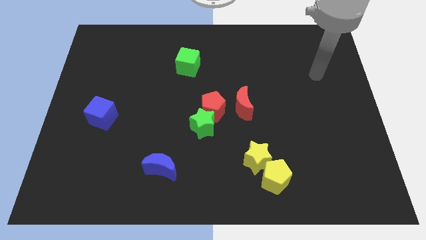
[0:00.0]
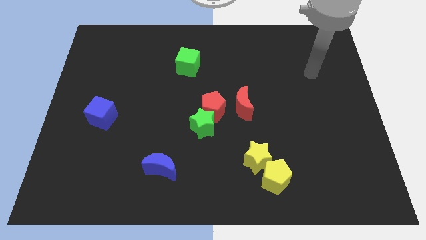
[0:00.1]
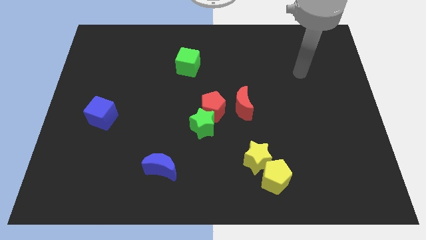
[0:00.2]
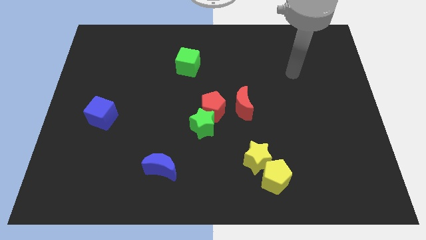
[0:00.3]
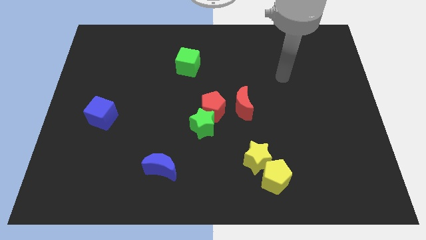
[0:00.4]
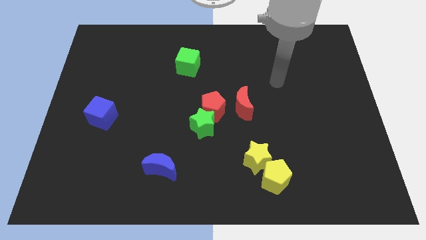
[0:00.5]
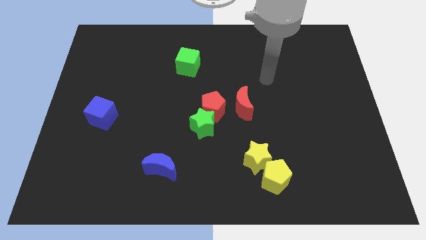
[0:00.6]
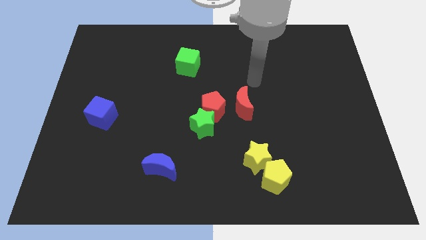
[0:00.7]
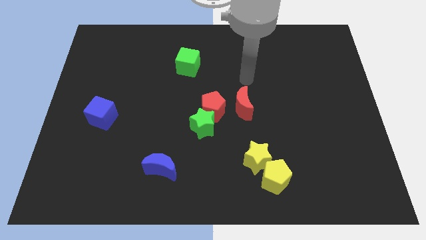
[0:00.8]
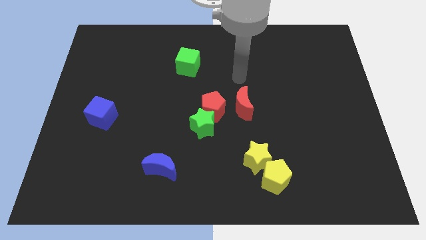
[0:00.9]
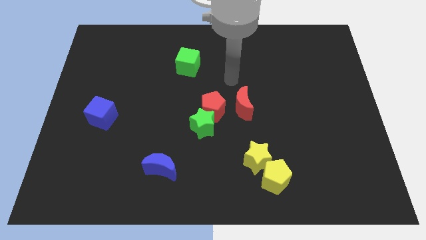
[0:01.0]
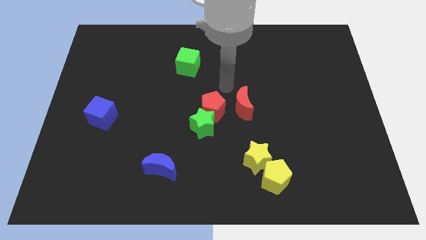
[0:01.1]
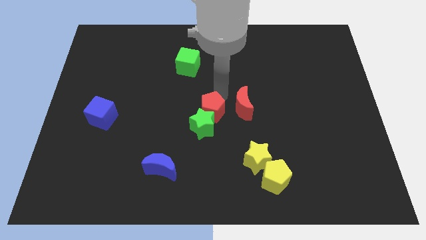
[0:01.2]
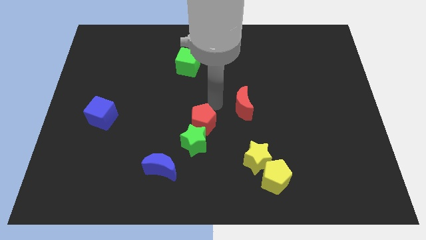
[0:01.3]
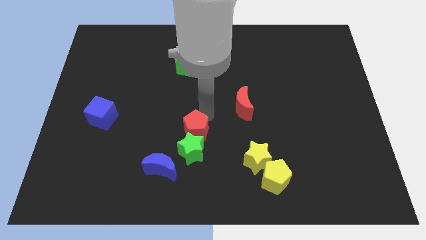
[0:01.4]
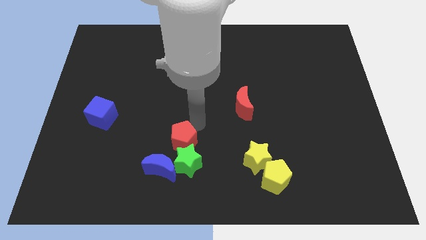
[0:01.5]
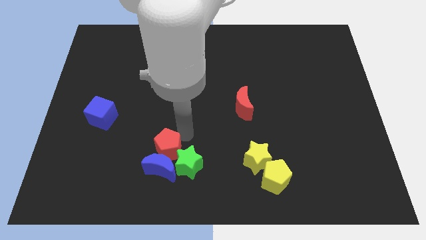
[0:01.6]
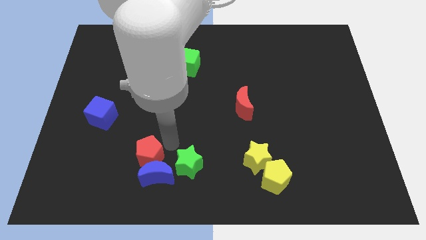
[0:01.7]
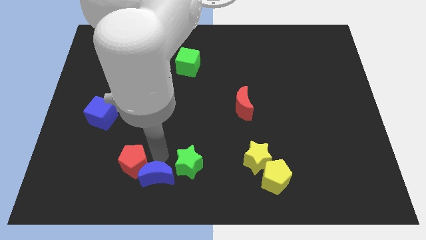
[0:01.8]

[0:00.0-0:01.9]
separate the green star from the red pentagon

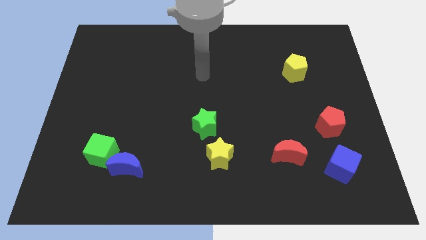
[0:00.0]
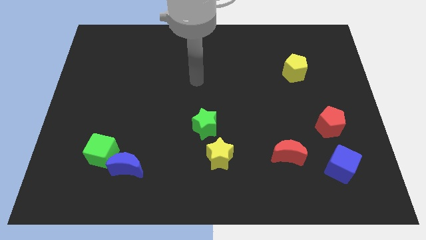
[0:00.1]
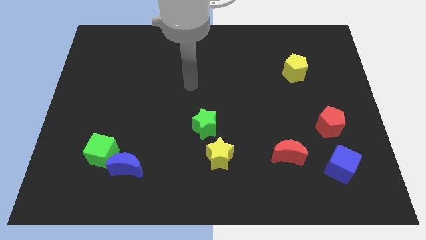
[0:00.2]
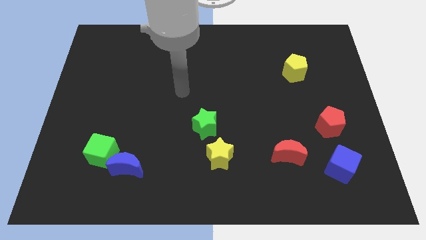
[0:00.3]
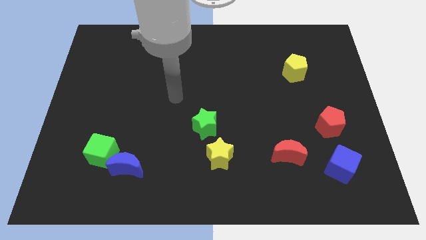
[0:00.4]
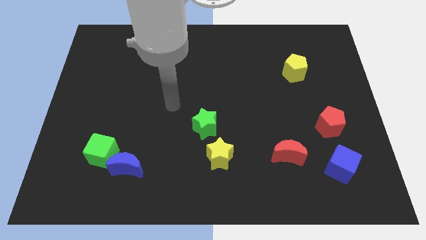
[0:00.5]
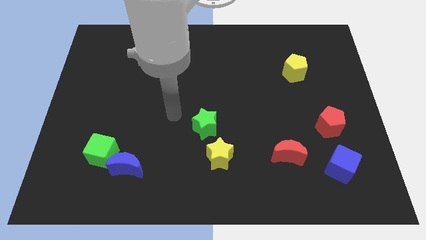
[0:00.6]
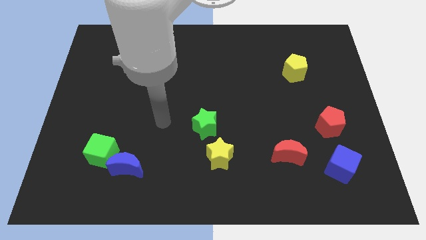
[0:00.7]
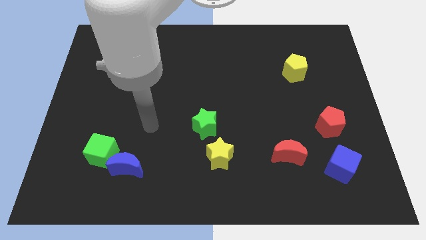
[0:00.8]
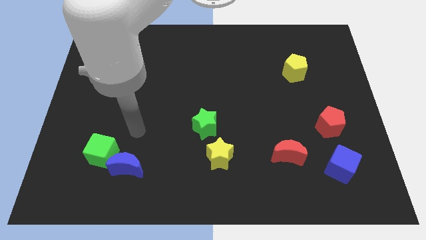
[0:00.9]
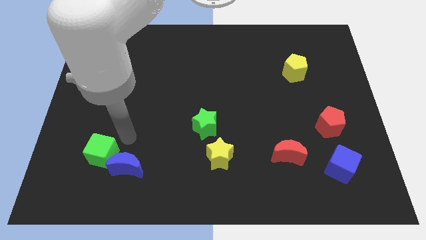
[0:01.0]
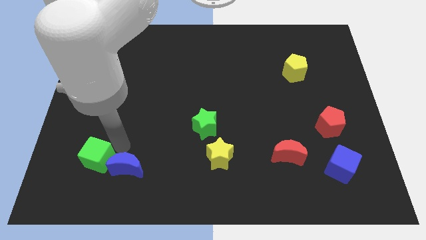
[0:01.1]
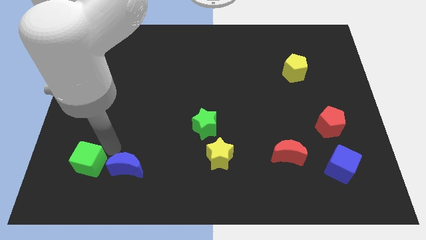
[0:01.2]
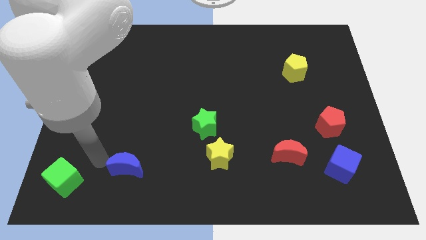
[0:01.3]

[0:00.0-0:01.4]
separate the blue moon from the green cube

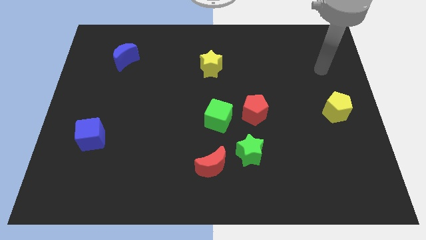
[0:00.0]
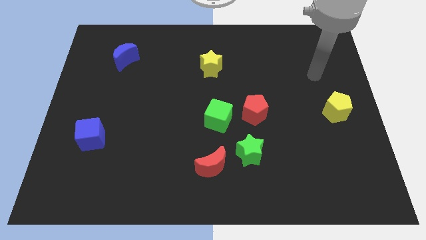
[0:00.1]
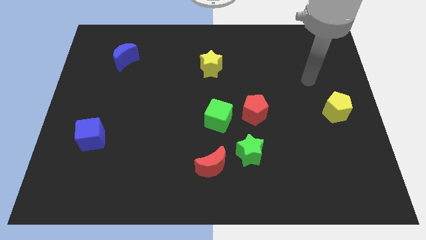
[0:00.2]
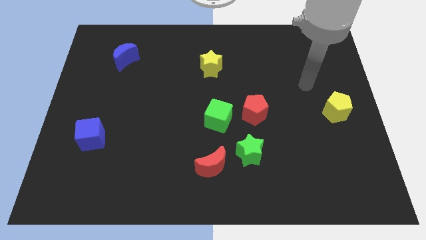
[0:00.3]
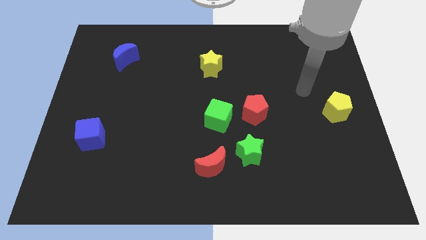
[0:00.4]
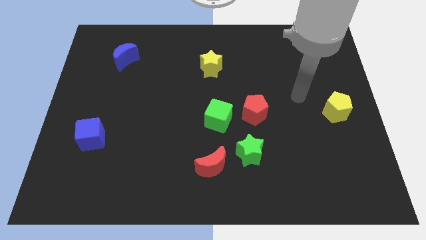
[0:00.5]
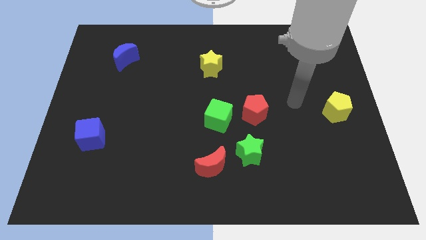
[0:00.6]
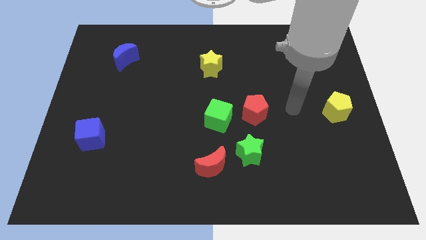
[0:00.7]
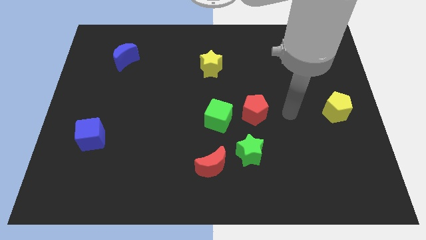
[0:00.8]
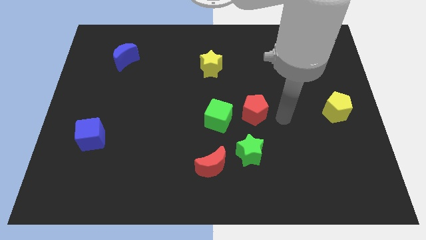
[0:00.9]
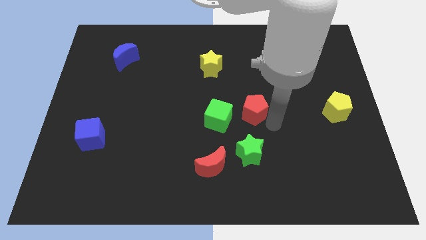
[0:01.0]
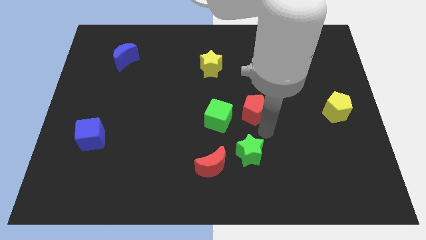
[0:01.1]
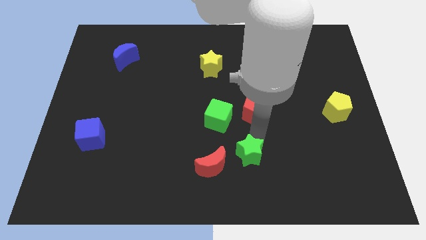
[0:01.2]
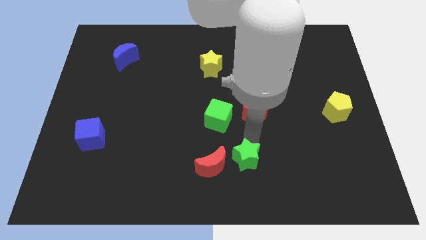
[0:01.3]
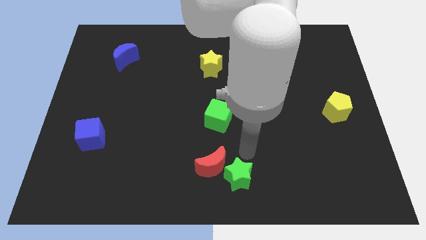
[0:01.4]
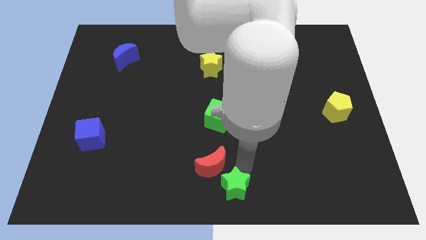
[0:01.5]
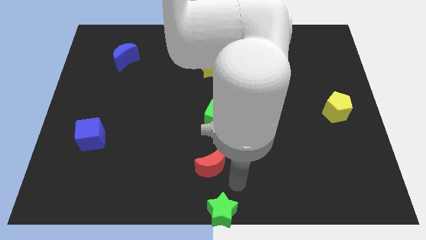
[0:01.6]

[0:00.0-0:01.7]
separate the red moon from the green star

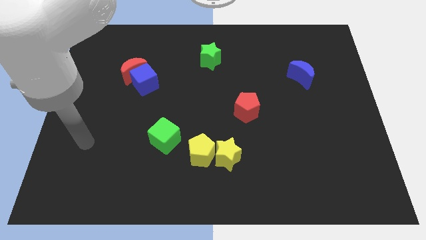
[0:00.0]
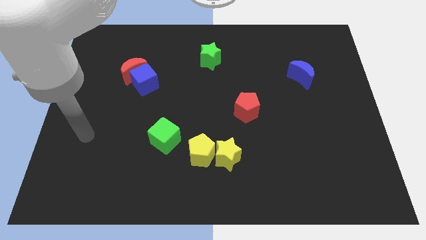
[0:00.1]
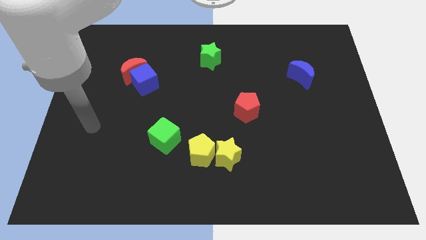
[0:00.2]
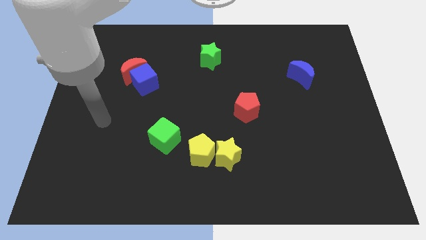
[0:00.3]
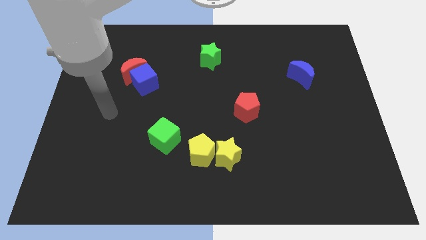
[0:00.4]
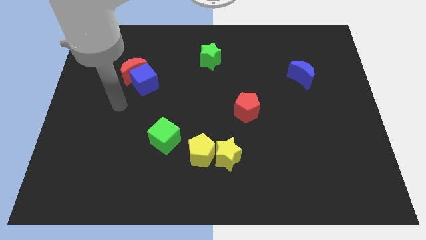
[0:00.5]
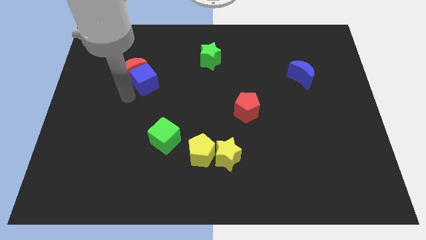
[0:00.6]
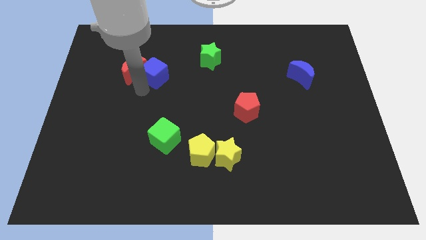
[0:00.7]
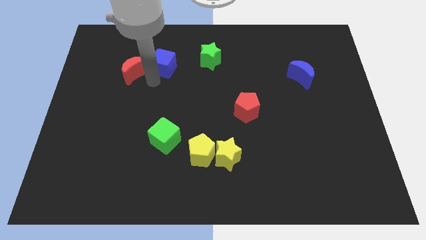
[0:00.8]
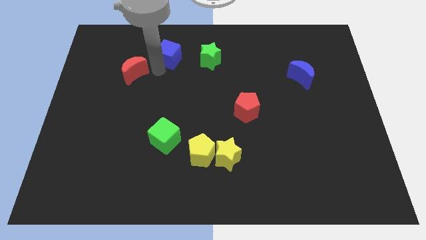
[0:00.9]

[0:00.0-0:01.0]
move the red moon away from the blue cube

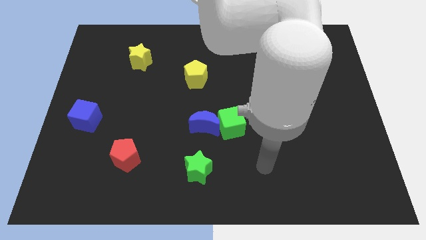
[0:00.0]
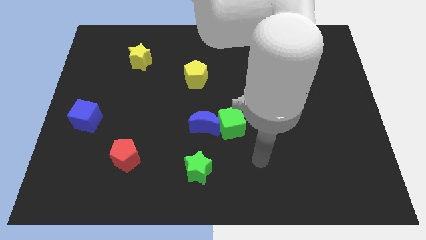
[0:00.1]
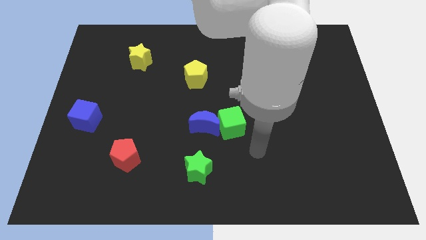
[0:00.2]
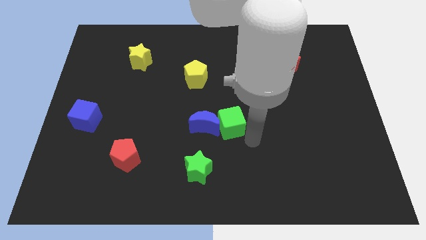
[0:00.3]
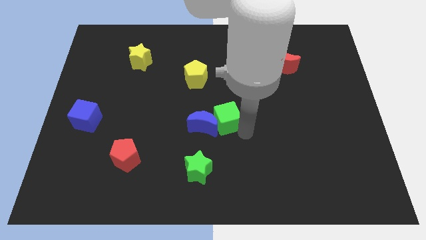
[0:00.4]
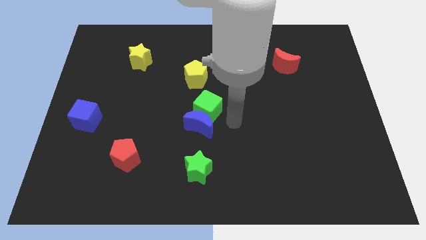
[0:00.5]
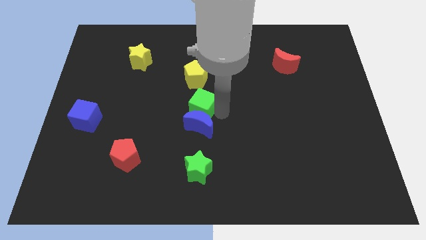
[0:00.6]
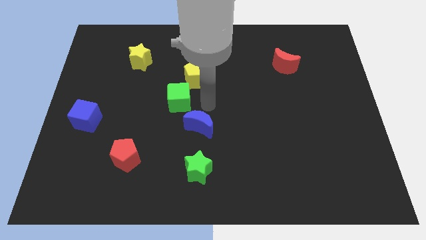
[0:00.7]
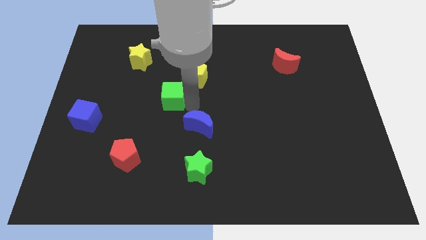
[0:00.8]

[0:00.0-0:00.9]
move the blue moon away from the green cube

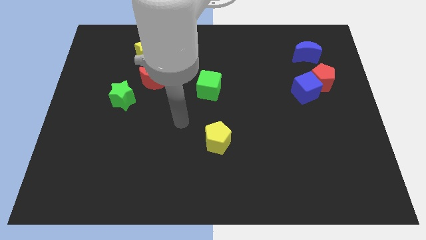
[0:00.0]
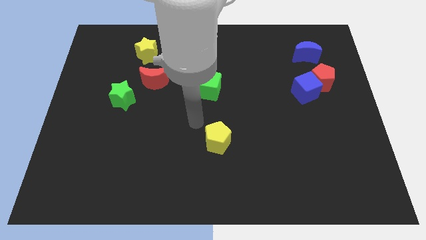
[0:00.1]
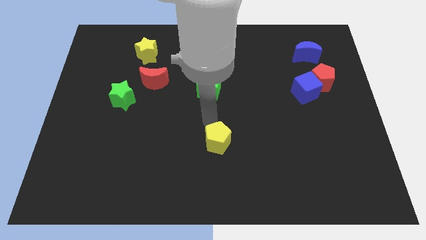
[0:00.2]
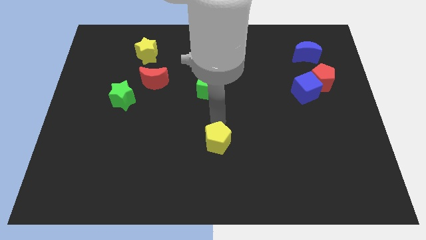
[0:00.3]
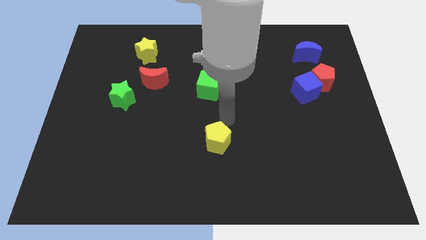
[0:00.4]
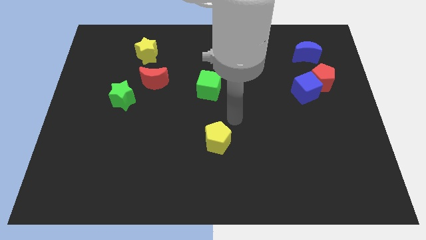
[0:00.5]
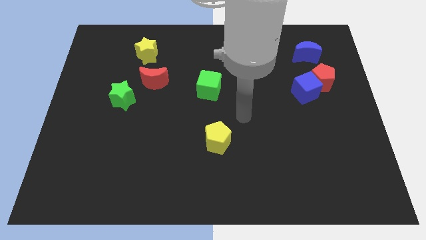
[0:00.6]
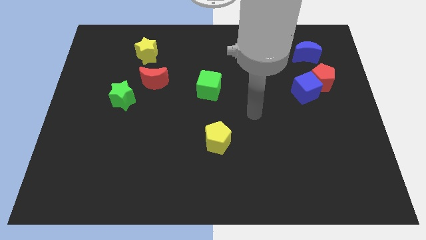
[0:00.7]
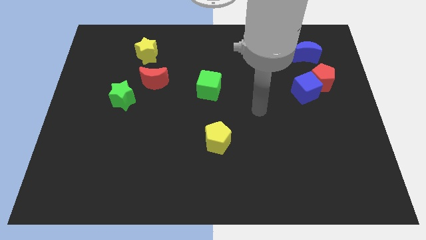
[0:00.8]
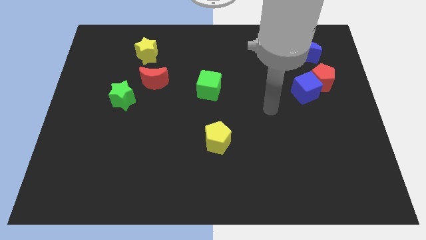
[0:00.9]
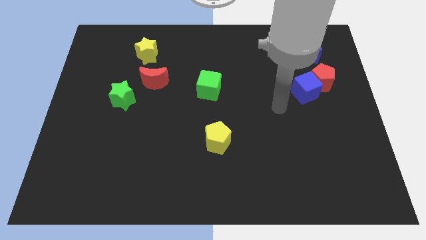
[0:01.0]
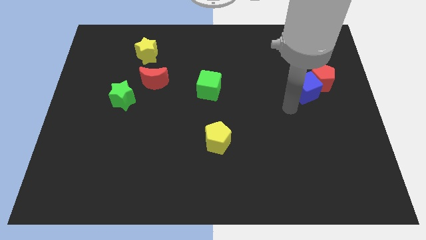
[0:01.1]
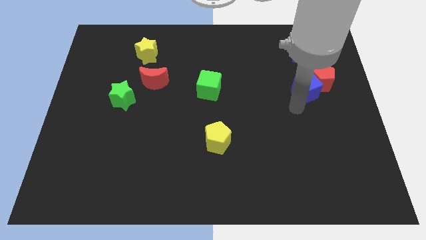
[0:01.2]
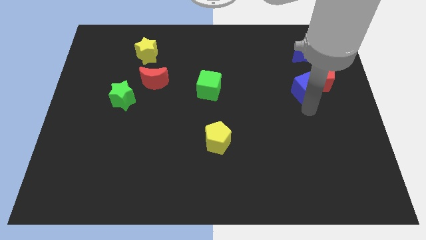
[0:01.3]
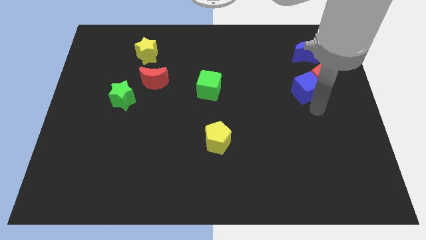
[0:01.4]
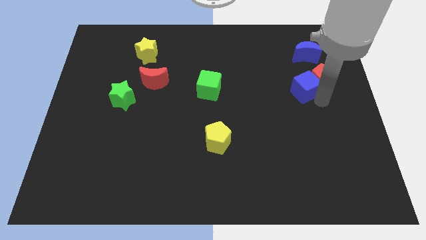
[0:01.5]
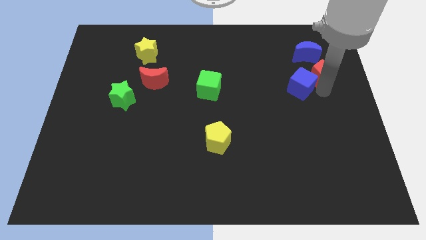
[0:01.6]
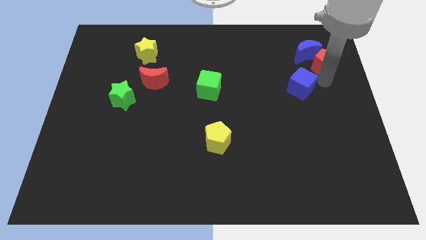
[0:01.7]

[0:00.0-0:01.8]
separate the blue cube from the red pentagon

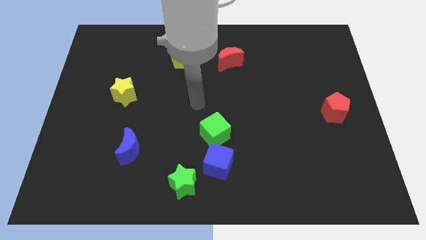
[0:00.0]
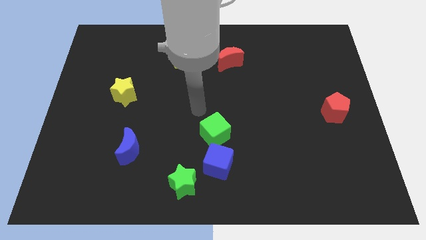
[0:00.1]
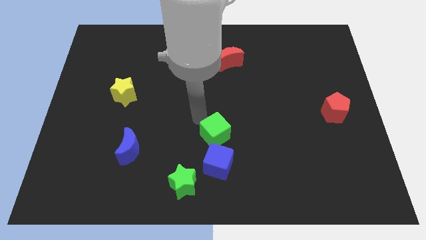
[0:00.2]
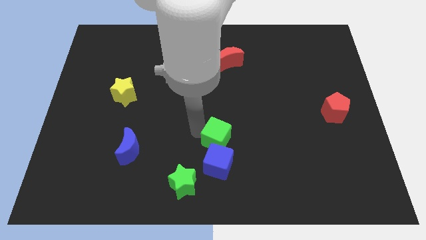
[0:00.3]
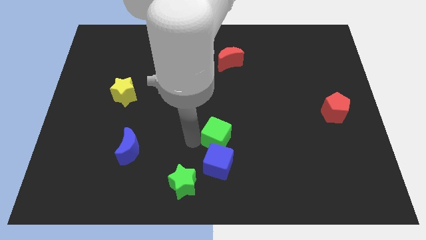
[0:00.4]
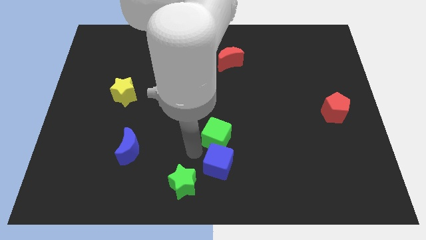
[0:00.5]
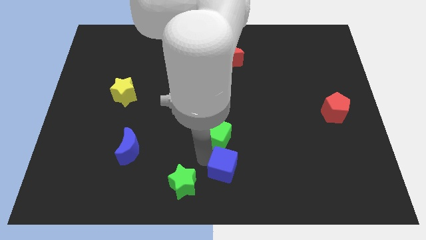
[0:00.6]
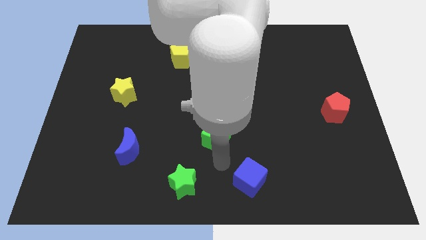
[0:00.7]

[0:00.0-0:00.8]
separate the green cube from the blue cube
